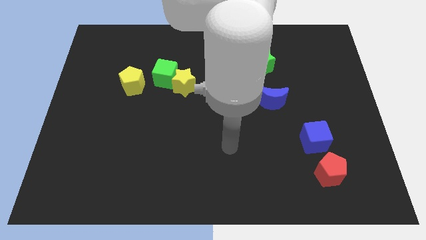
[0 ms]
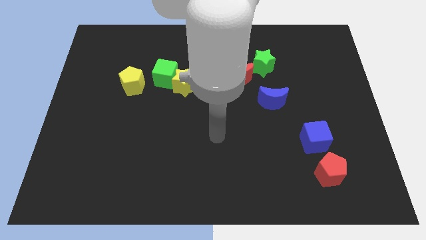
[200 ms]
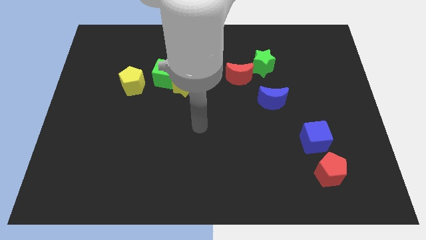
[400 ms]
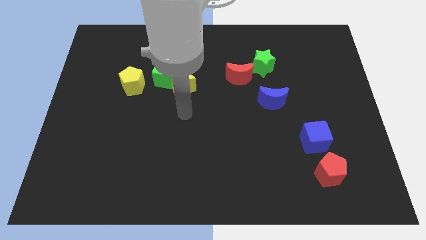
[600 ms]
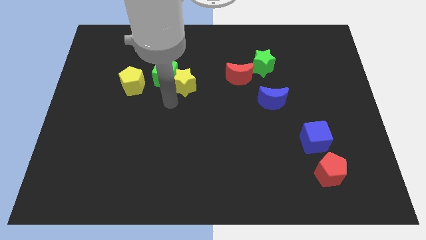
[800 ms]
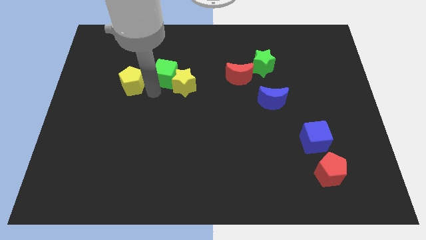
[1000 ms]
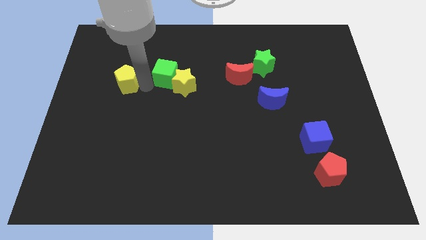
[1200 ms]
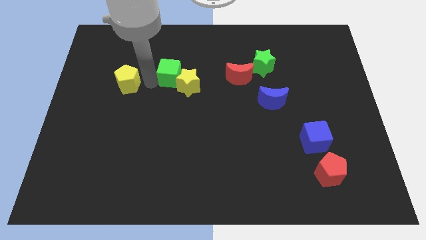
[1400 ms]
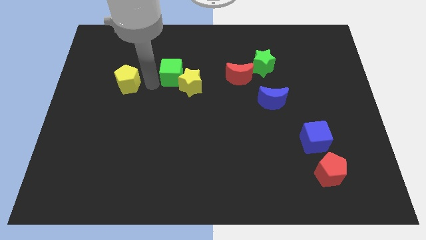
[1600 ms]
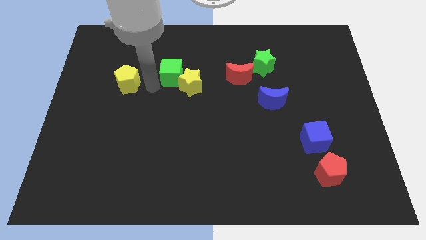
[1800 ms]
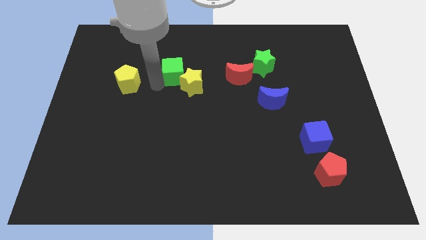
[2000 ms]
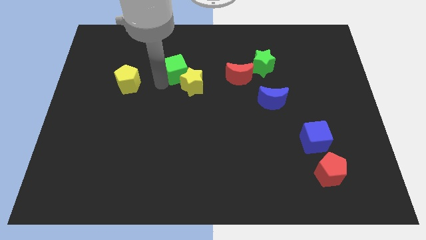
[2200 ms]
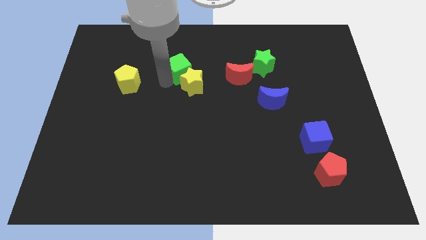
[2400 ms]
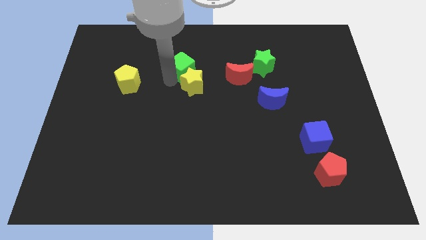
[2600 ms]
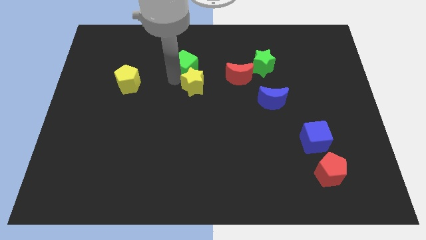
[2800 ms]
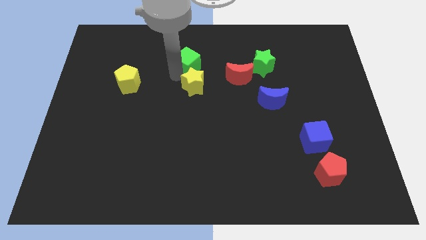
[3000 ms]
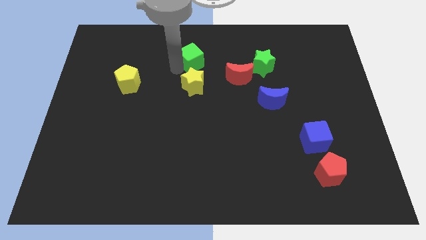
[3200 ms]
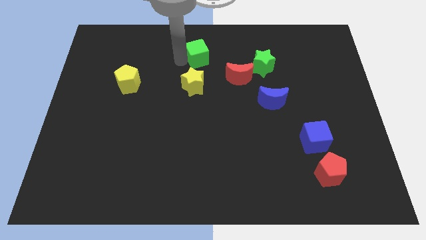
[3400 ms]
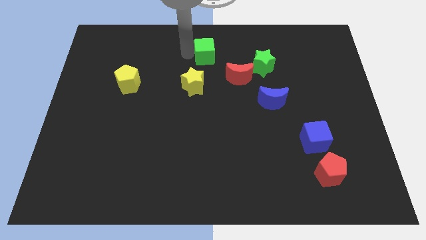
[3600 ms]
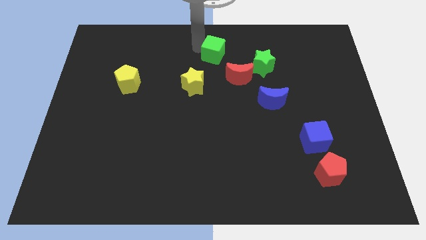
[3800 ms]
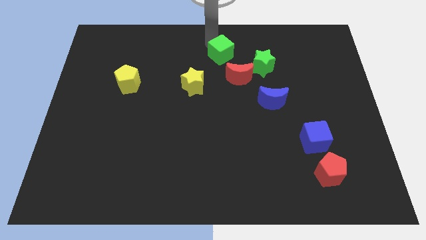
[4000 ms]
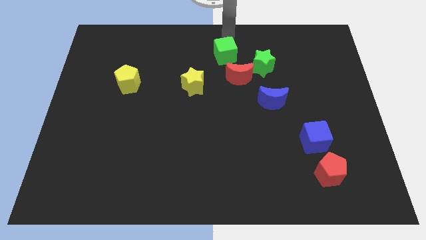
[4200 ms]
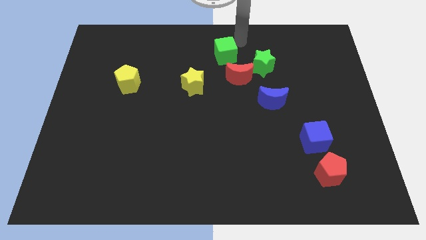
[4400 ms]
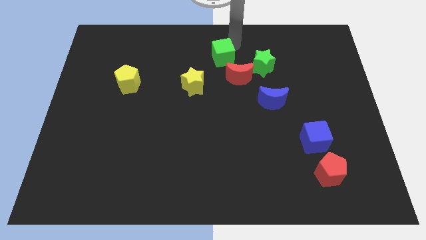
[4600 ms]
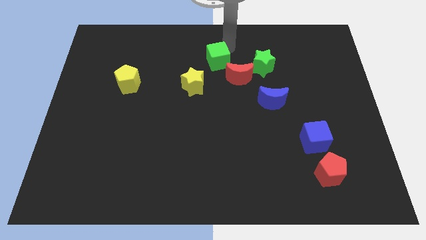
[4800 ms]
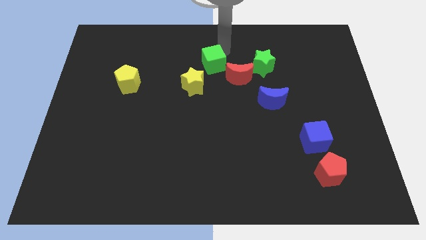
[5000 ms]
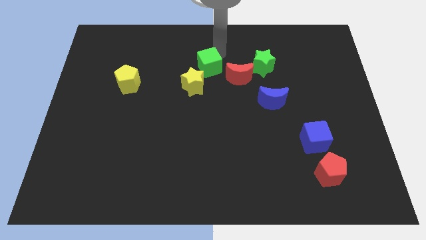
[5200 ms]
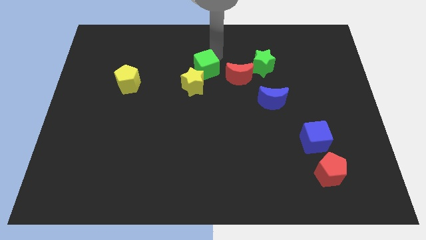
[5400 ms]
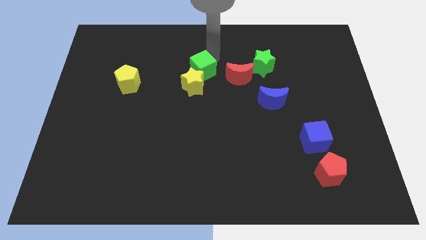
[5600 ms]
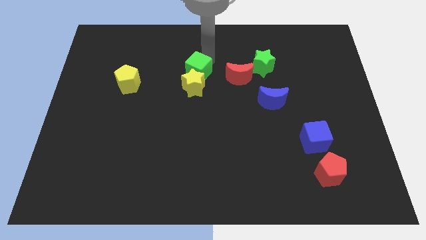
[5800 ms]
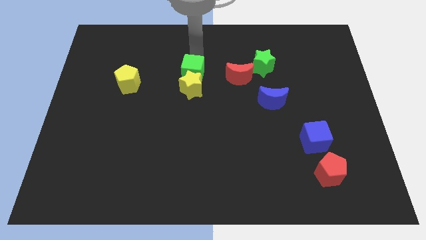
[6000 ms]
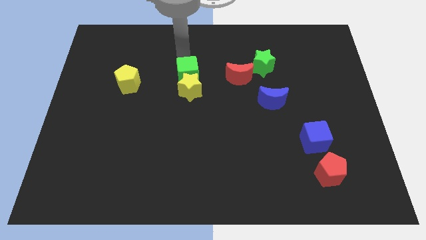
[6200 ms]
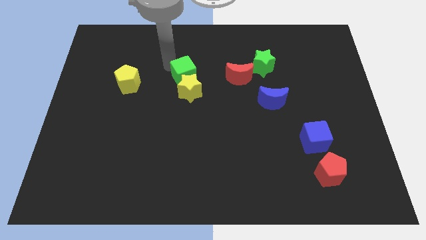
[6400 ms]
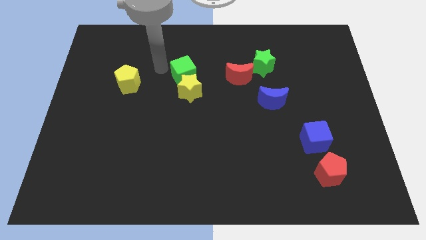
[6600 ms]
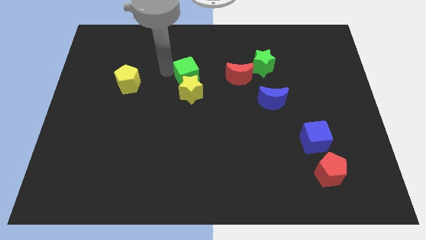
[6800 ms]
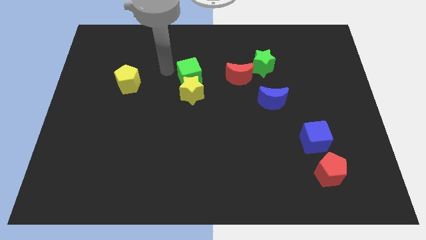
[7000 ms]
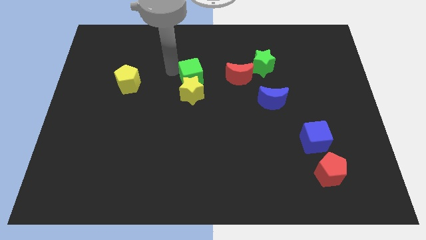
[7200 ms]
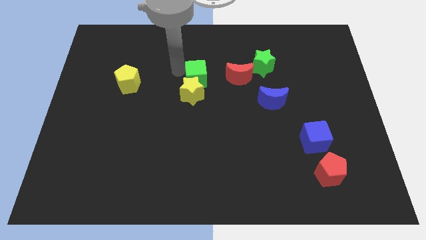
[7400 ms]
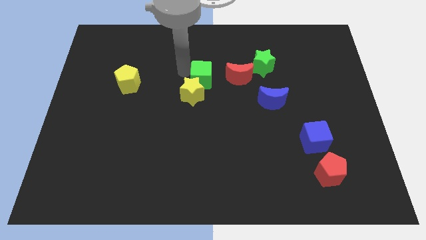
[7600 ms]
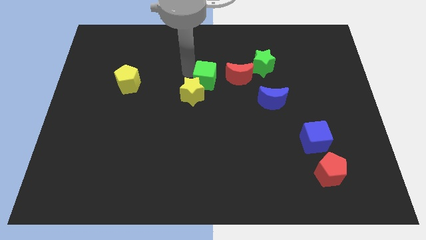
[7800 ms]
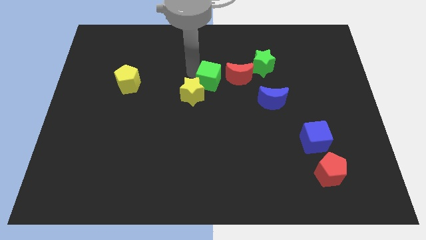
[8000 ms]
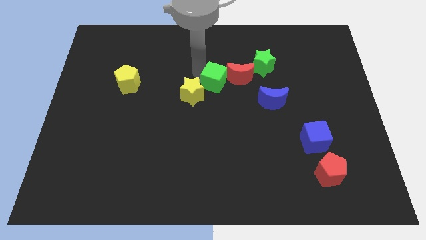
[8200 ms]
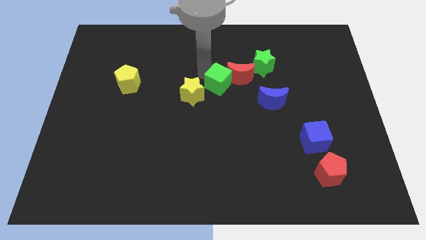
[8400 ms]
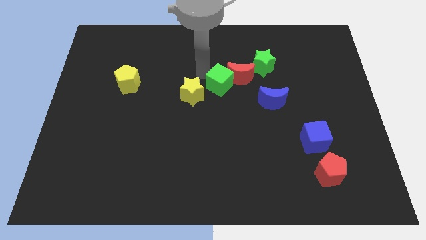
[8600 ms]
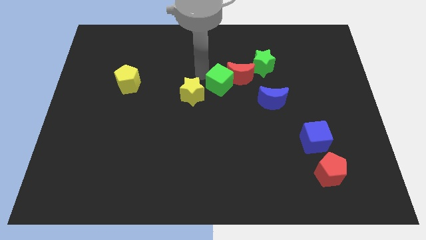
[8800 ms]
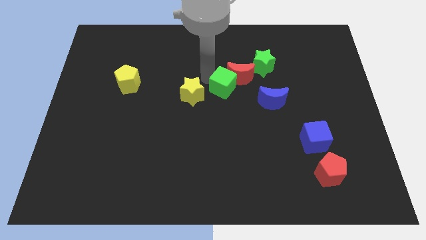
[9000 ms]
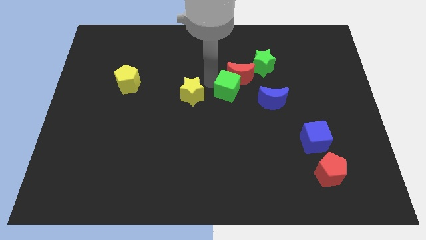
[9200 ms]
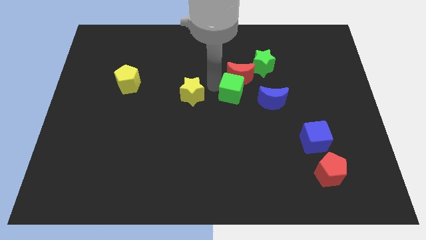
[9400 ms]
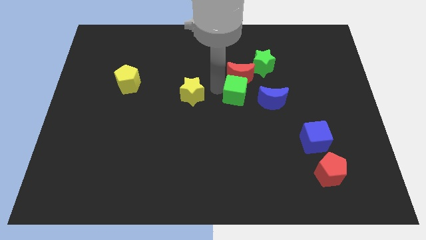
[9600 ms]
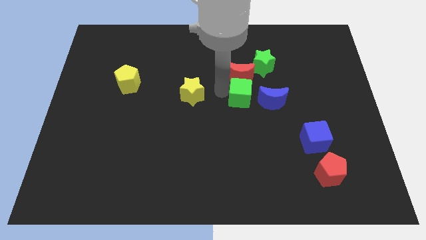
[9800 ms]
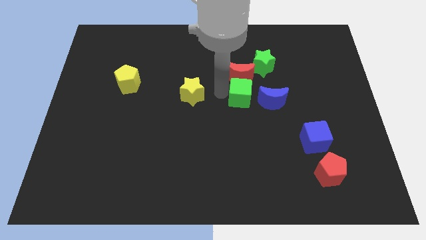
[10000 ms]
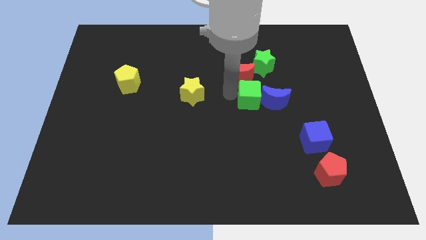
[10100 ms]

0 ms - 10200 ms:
push the green cube to the blue moon

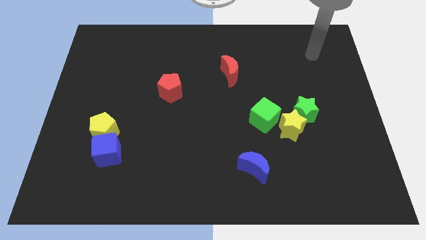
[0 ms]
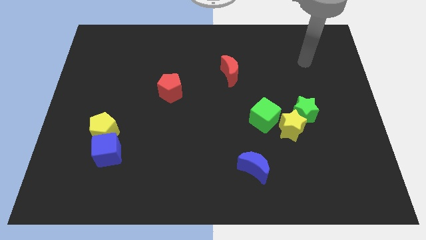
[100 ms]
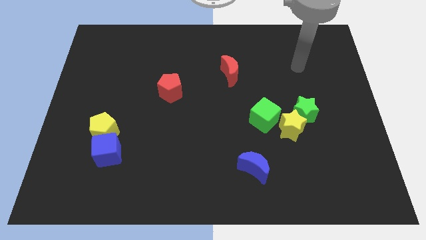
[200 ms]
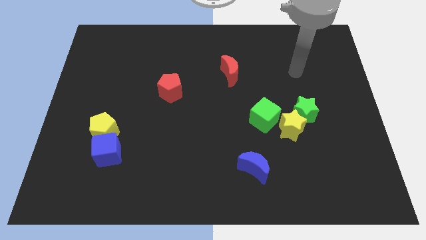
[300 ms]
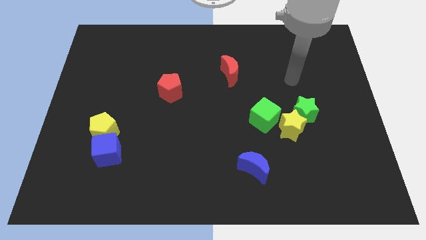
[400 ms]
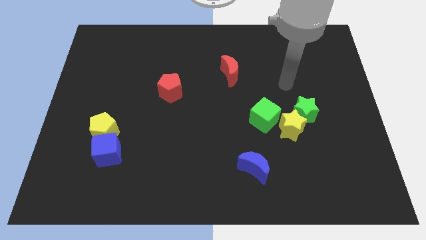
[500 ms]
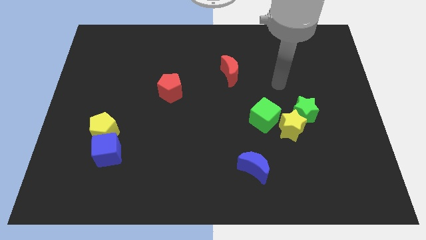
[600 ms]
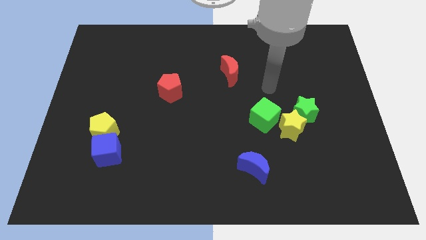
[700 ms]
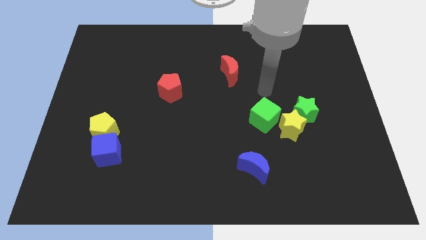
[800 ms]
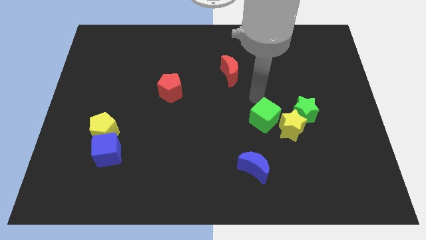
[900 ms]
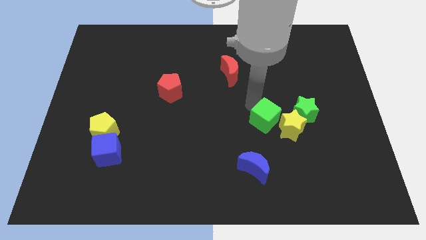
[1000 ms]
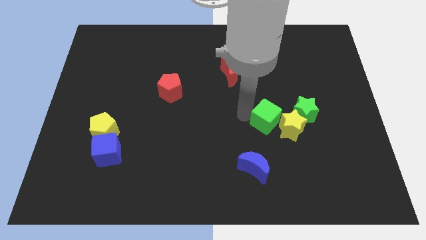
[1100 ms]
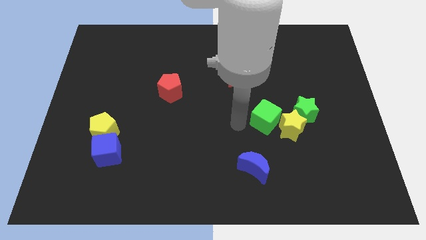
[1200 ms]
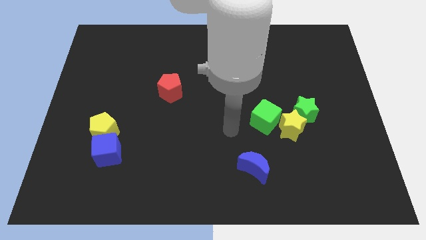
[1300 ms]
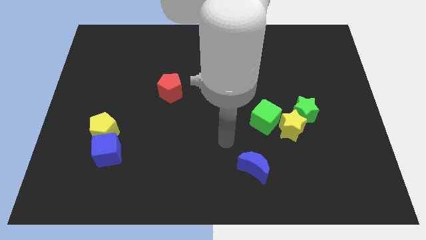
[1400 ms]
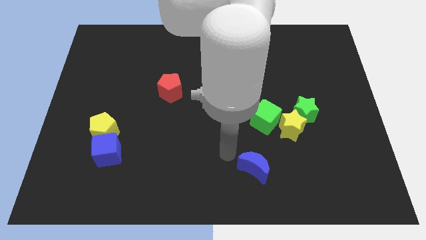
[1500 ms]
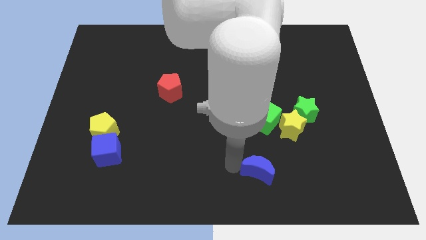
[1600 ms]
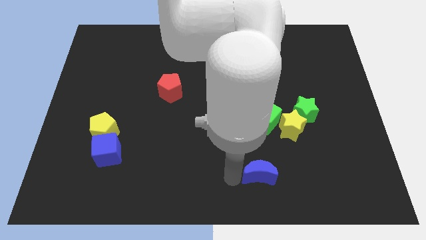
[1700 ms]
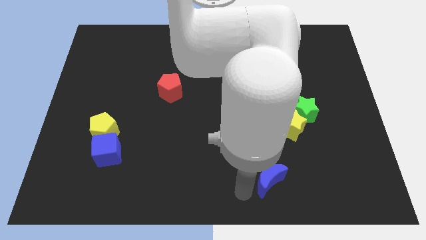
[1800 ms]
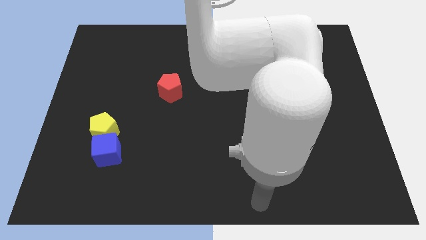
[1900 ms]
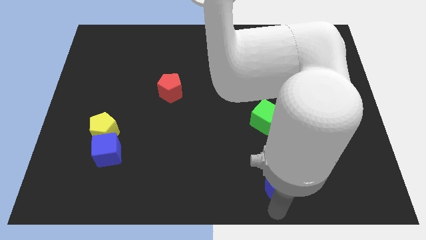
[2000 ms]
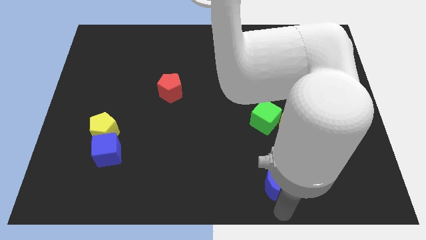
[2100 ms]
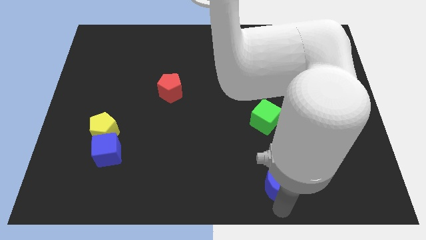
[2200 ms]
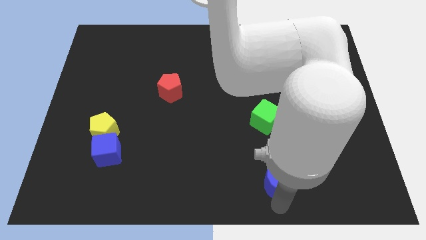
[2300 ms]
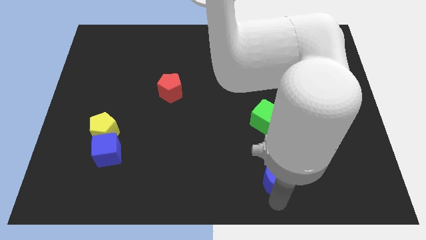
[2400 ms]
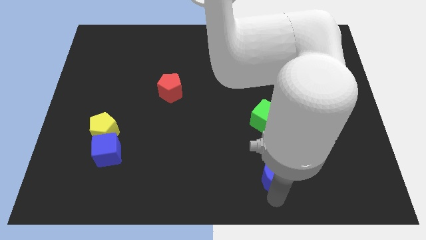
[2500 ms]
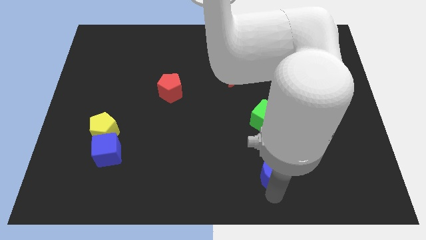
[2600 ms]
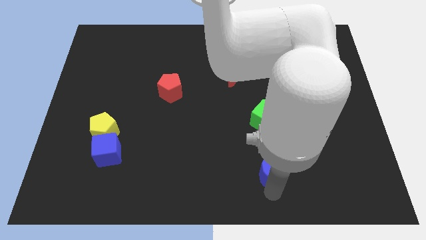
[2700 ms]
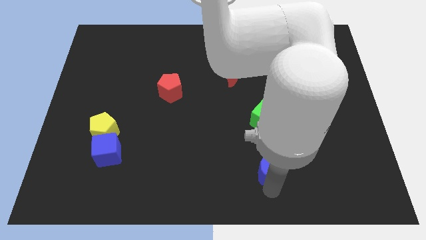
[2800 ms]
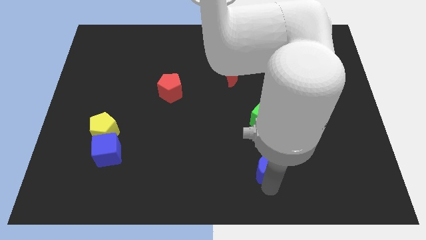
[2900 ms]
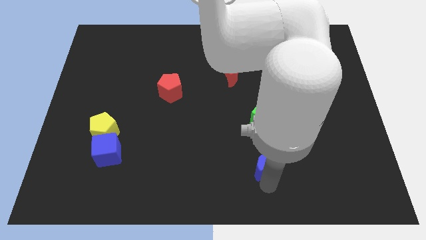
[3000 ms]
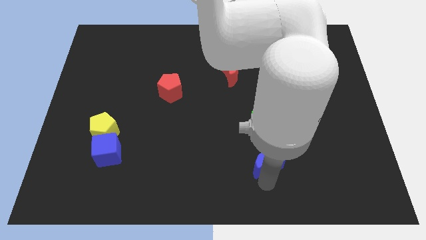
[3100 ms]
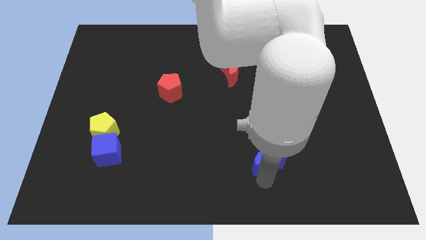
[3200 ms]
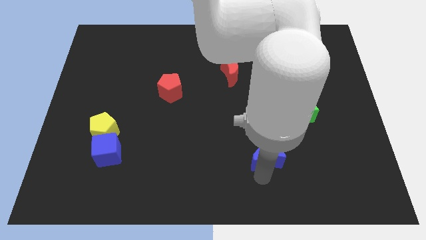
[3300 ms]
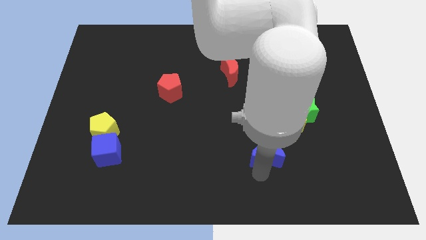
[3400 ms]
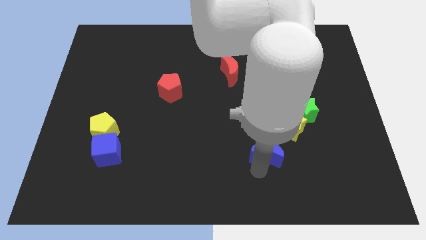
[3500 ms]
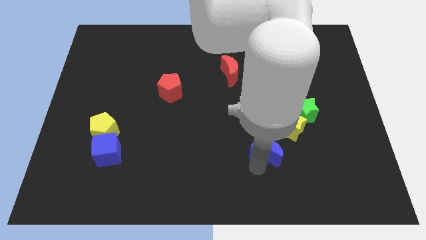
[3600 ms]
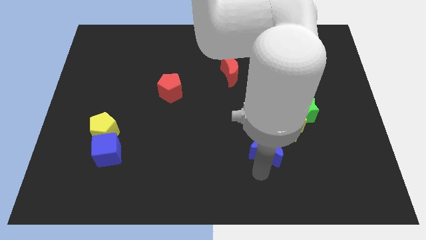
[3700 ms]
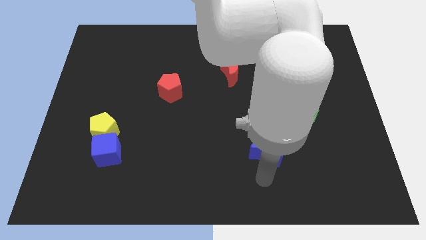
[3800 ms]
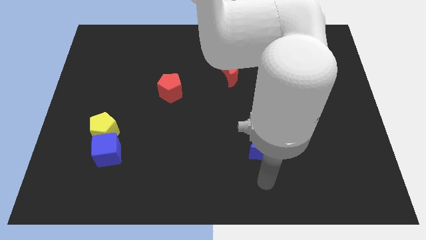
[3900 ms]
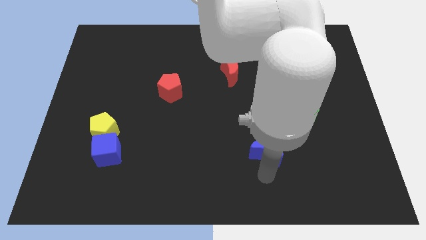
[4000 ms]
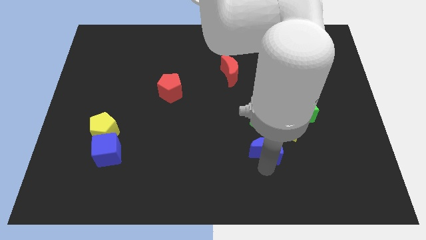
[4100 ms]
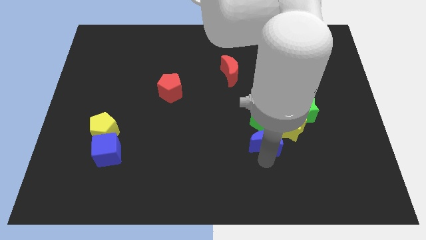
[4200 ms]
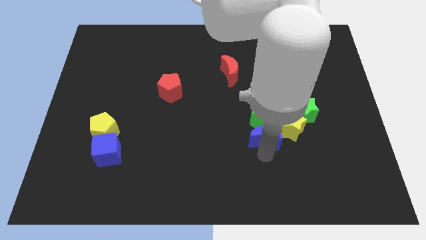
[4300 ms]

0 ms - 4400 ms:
put the blue moon close to the green cube
